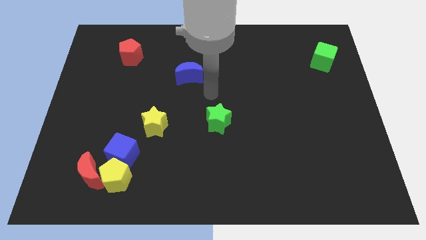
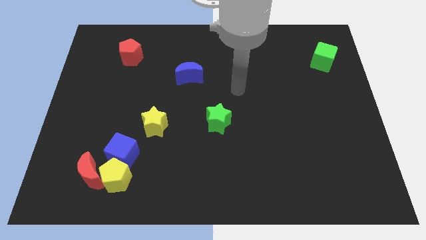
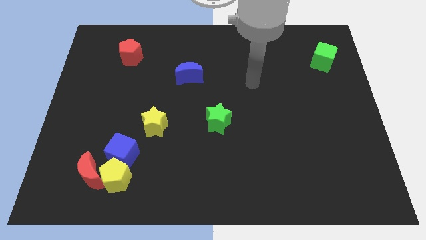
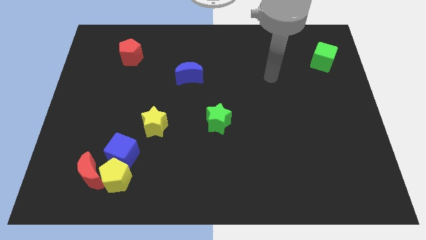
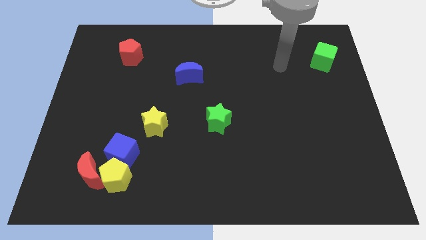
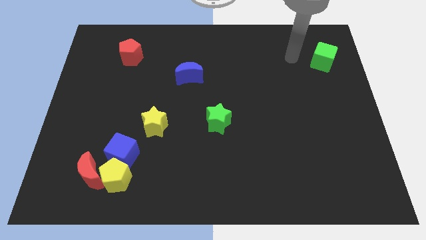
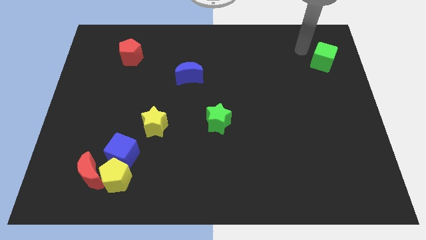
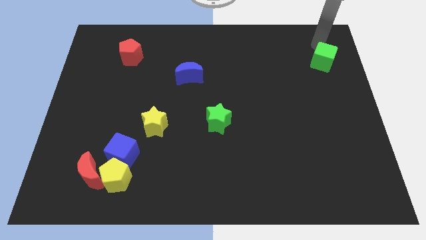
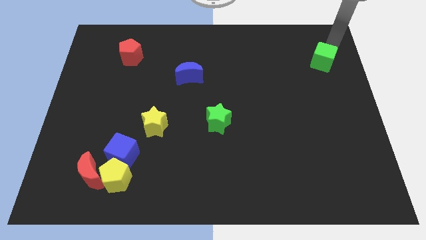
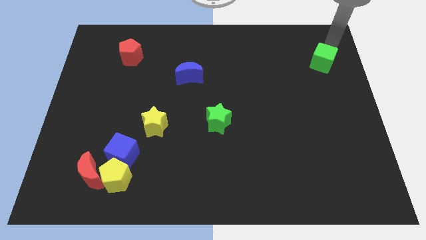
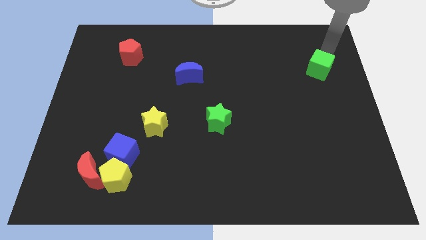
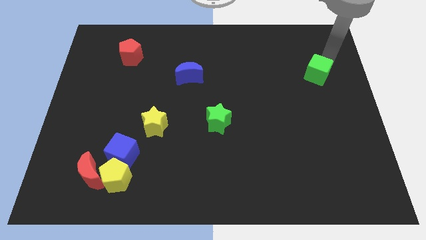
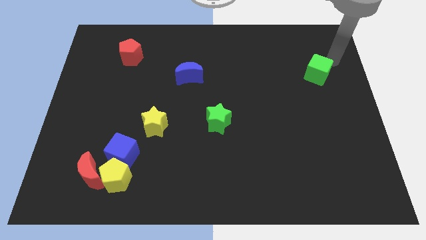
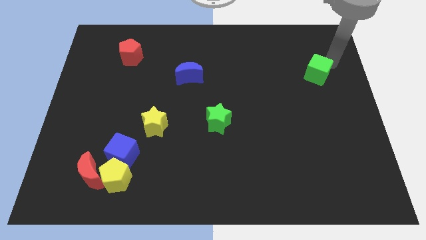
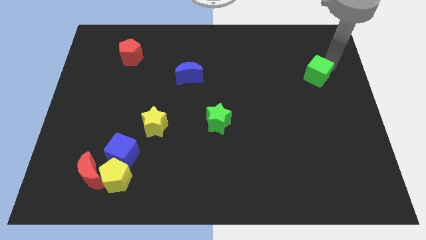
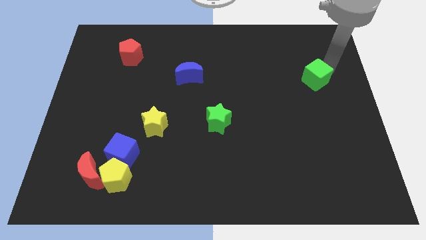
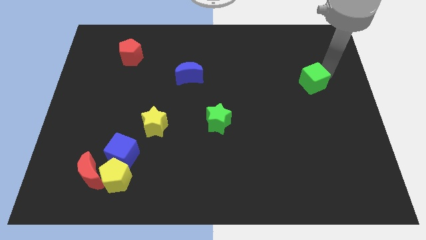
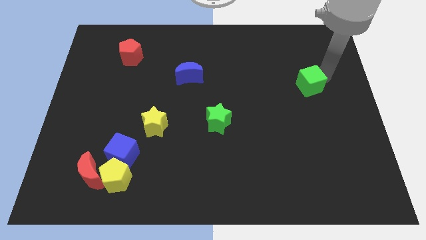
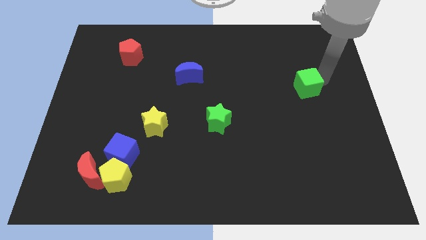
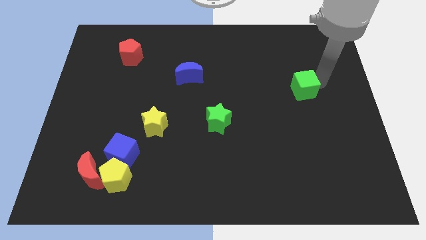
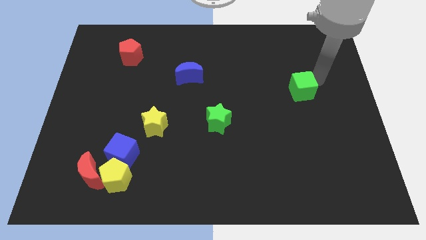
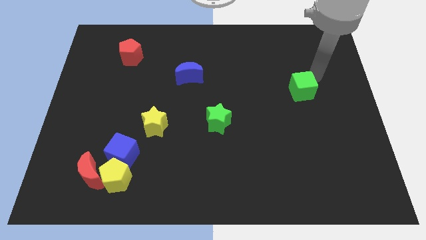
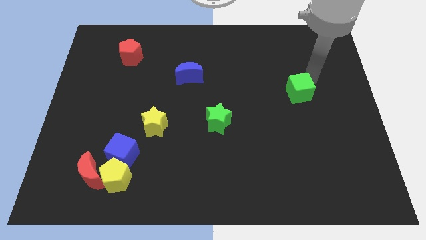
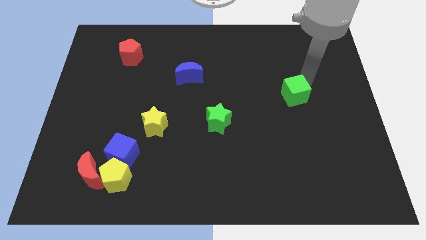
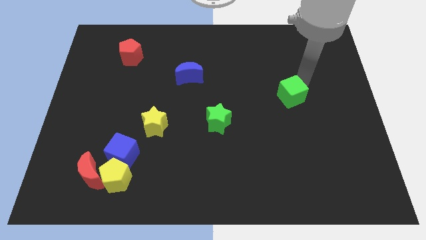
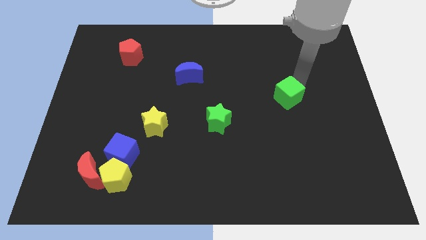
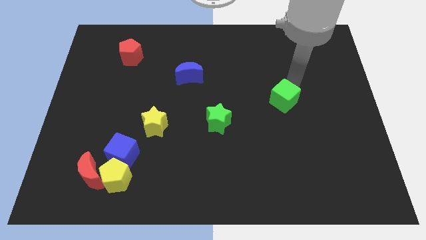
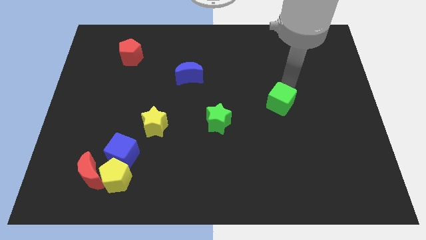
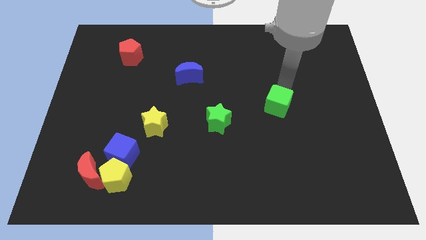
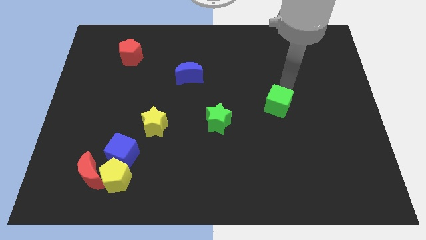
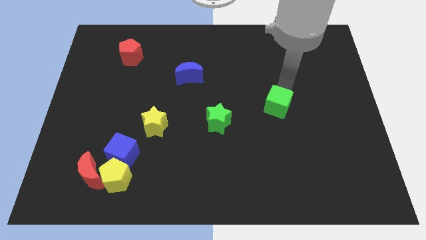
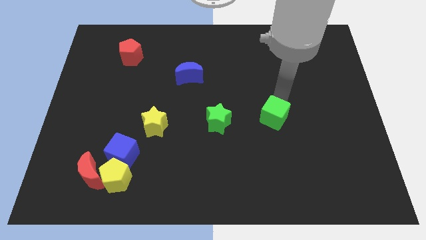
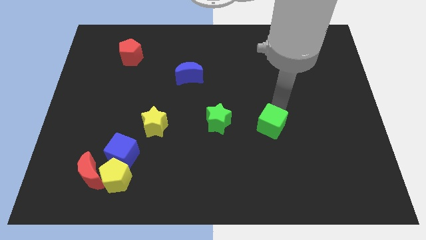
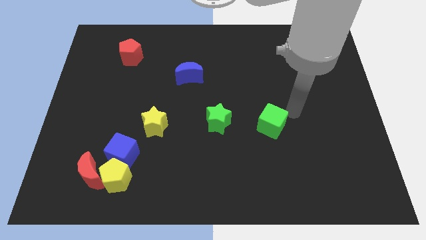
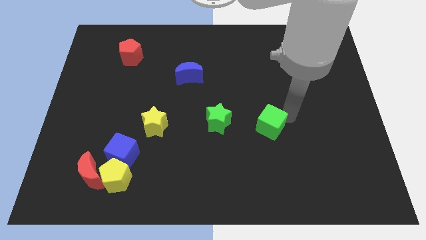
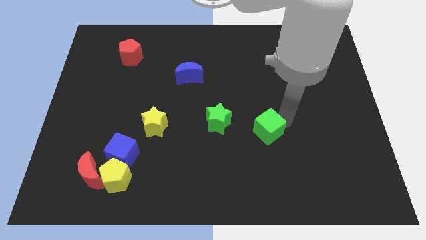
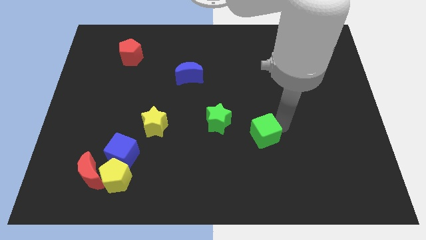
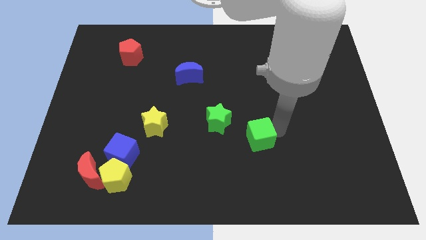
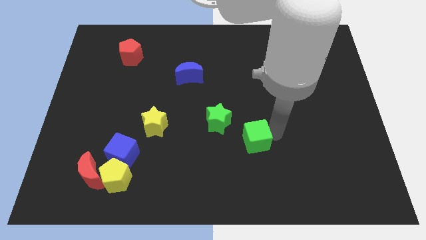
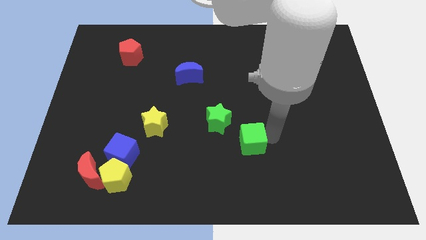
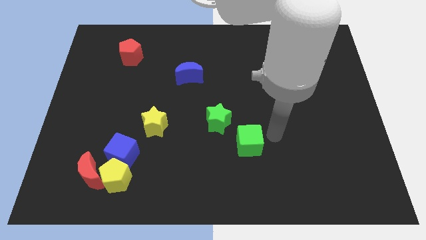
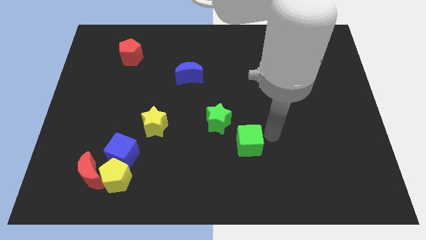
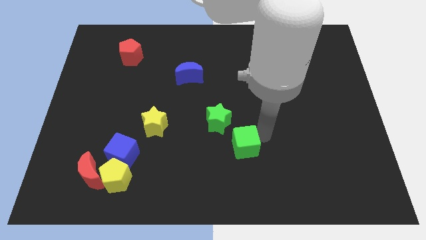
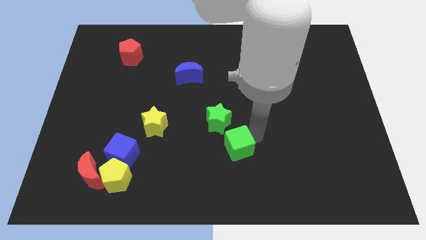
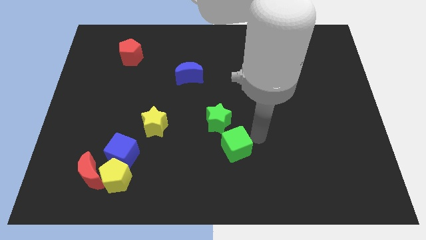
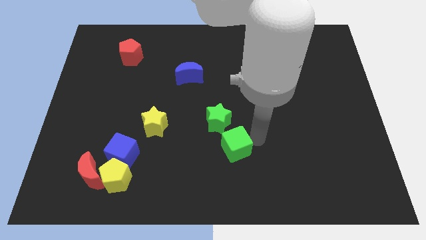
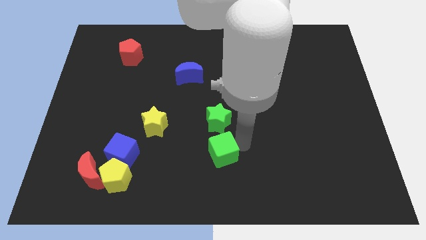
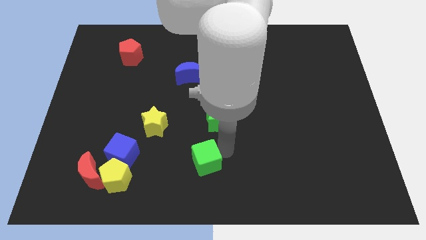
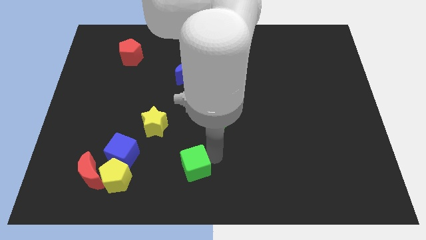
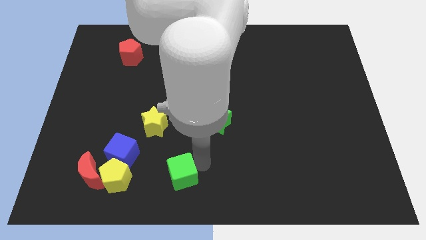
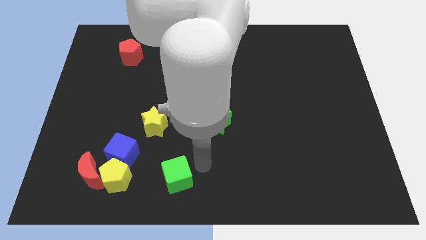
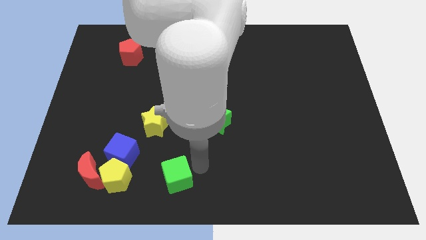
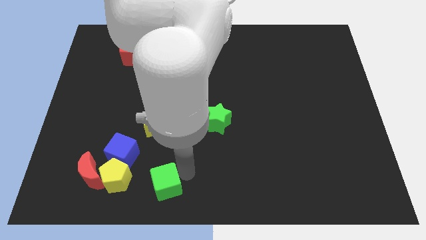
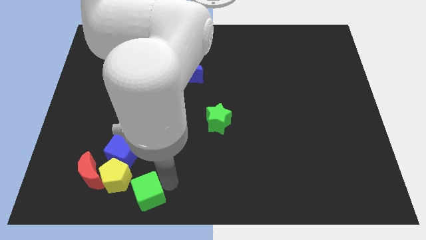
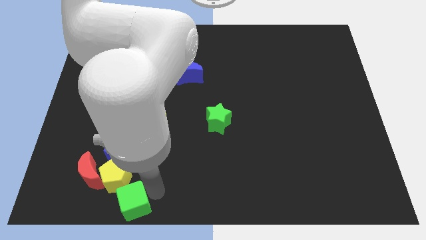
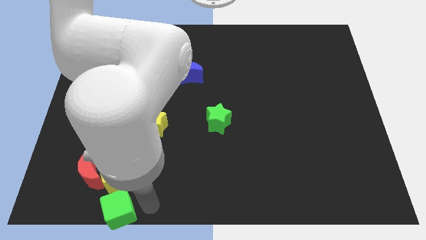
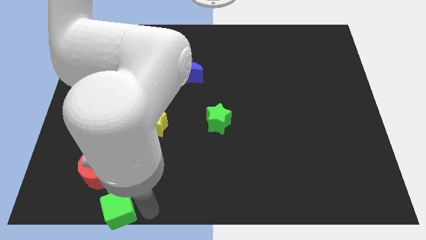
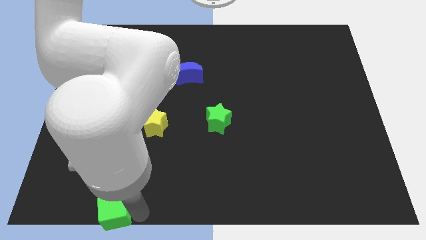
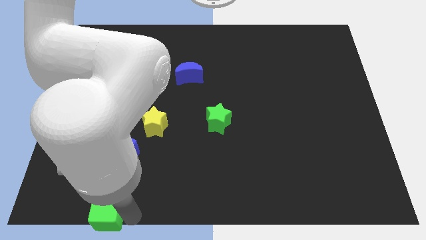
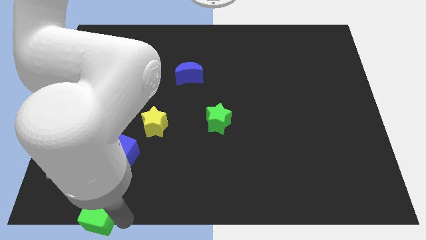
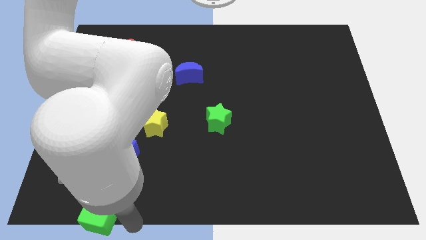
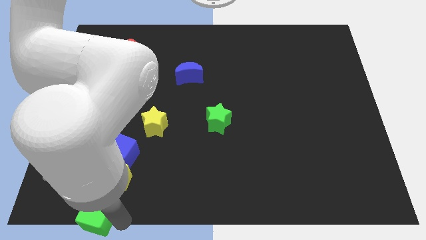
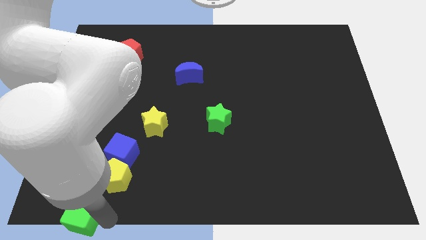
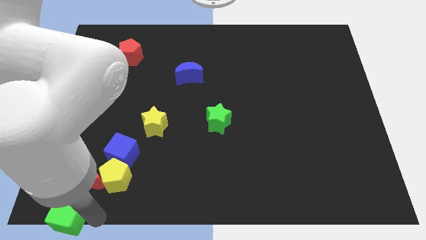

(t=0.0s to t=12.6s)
push the green cube to the bottom left corner

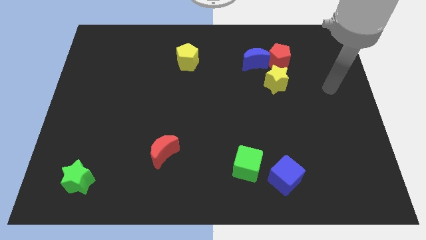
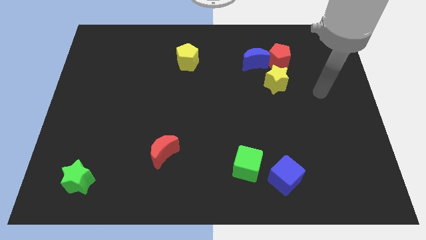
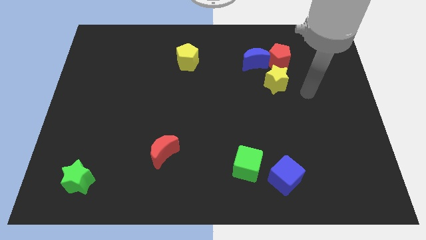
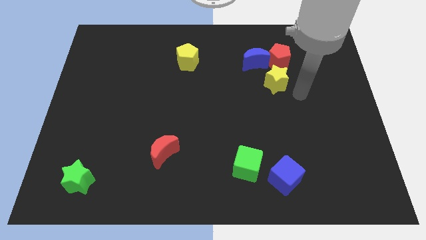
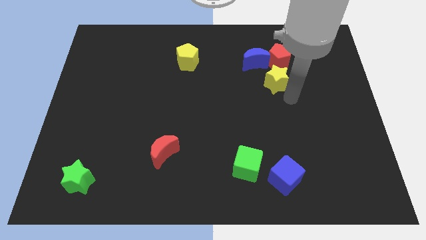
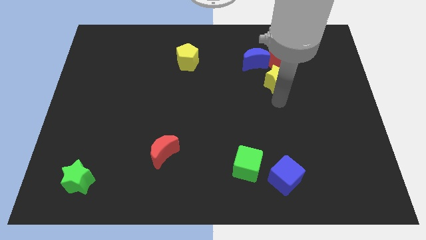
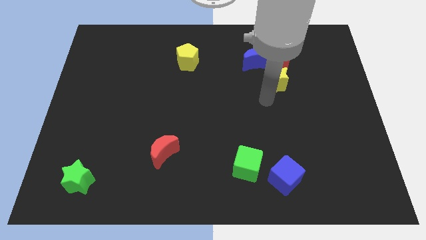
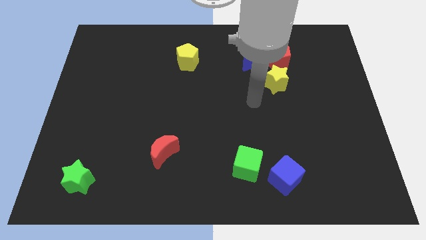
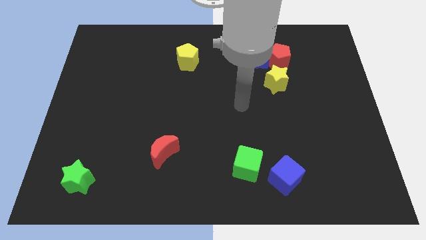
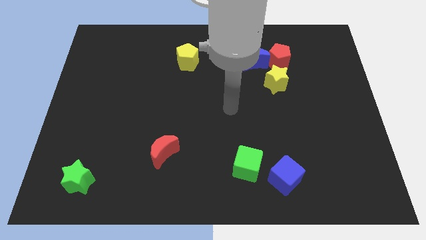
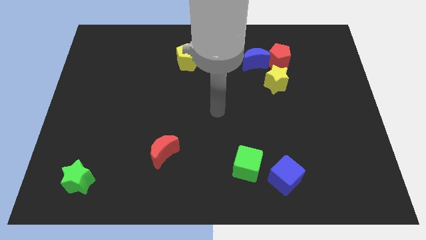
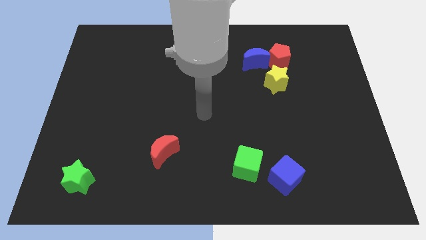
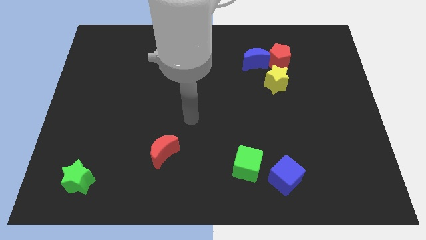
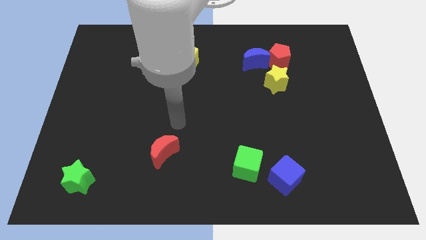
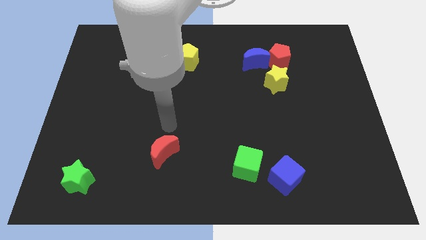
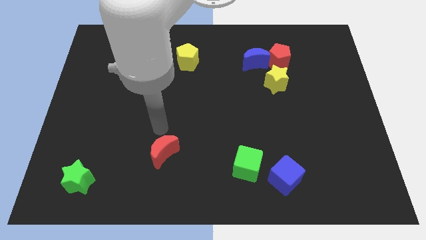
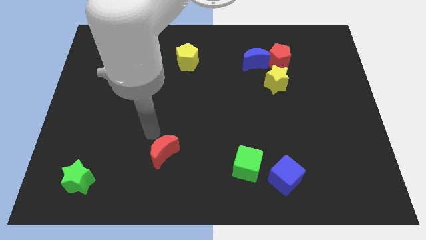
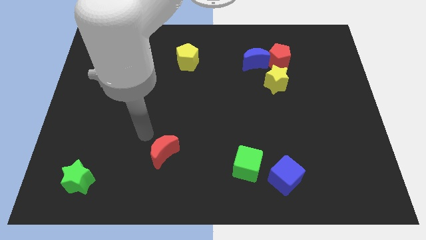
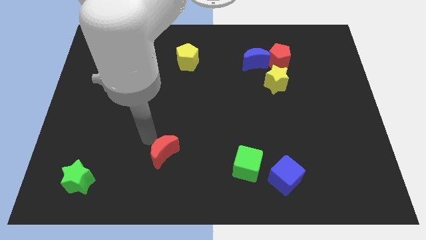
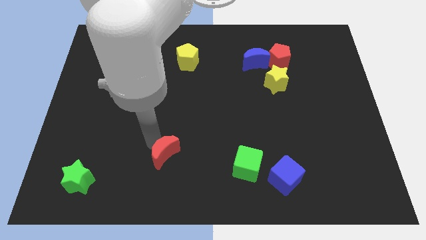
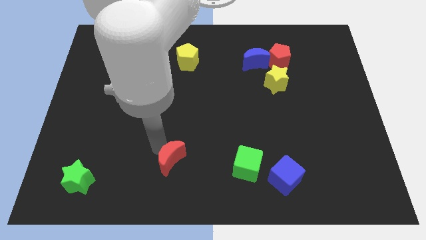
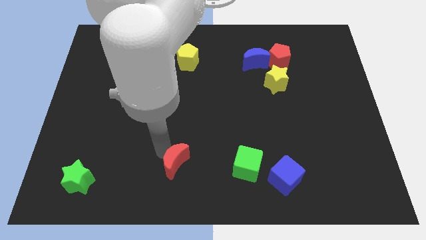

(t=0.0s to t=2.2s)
push the red moon to the bottom side
